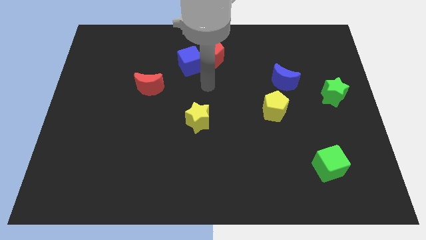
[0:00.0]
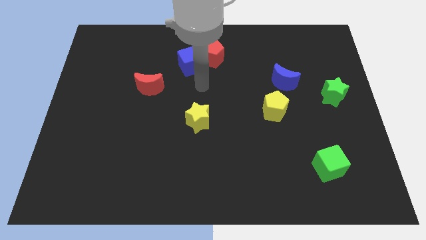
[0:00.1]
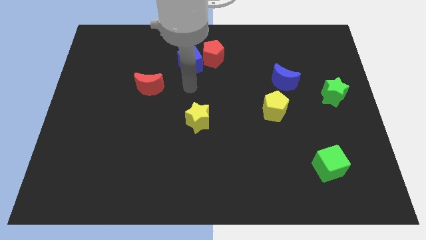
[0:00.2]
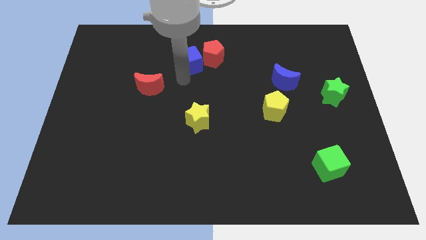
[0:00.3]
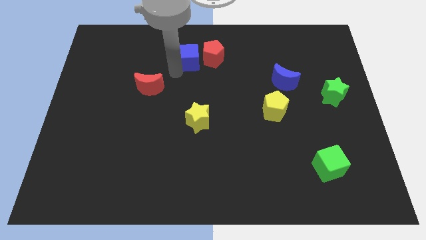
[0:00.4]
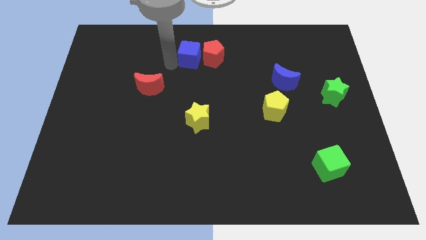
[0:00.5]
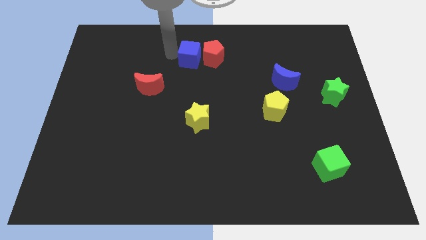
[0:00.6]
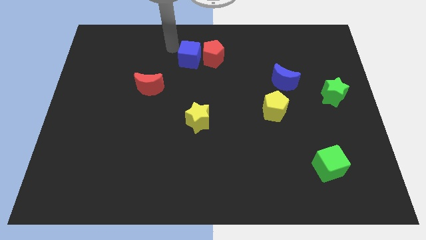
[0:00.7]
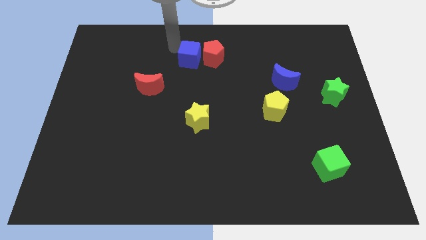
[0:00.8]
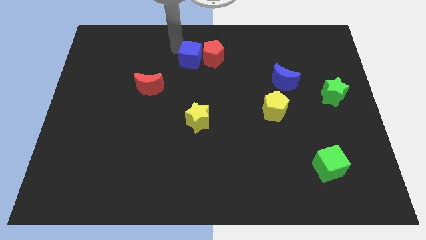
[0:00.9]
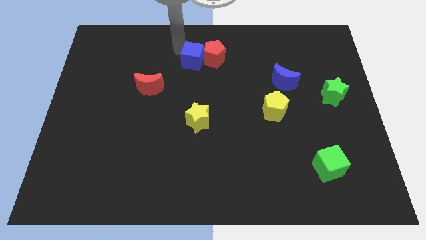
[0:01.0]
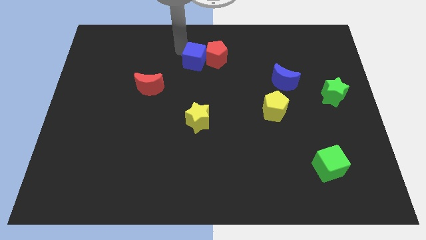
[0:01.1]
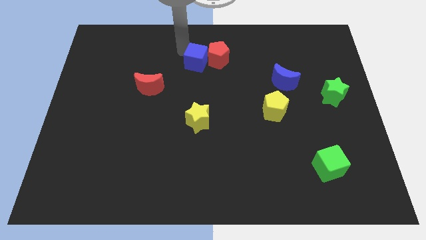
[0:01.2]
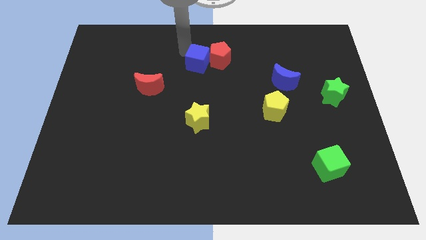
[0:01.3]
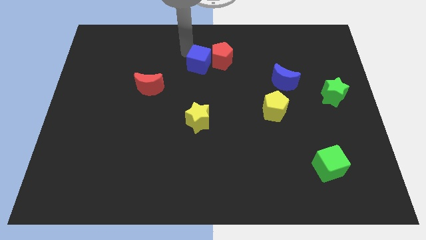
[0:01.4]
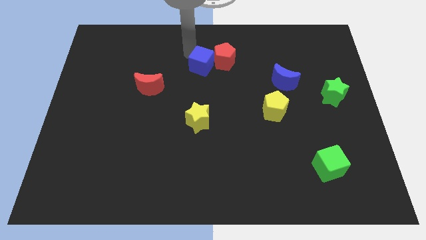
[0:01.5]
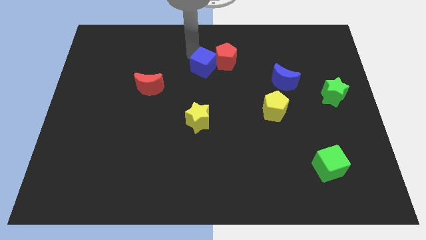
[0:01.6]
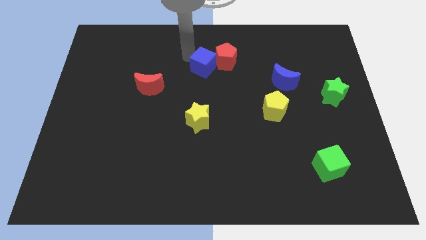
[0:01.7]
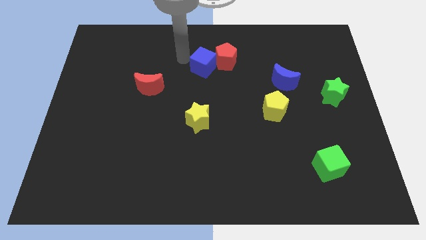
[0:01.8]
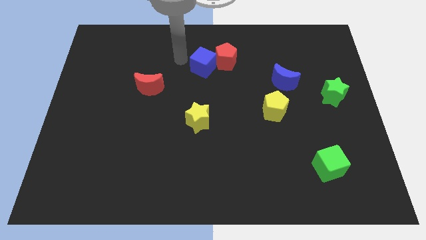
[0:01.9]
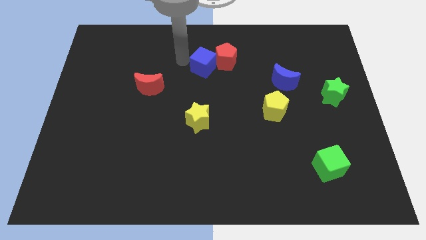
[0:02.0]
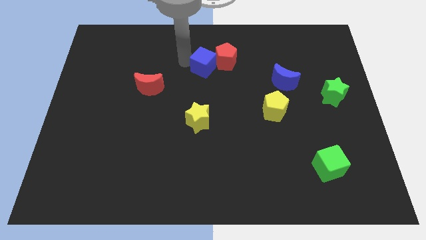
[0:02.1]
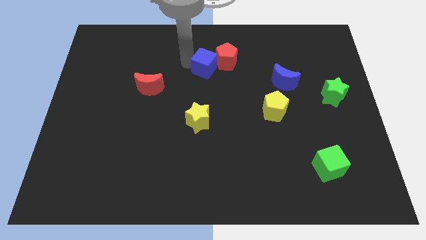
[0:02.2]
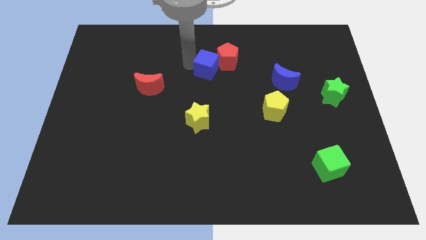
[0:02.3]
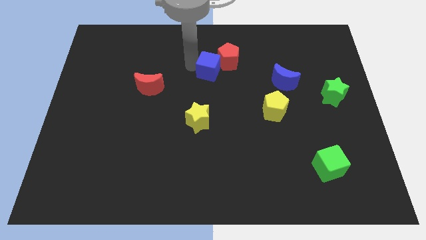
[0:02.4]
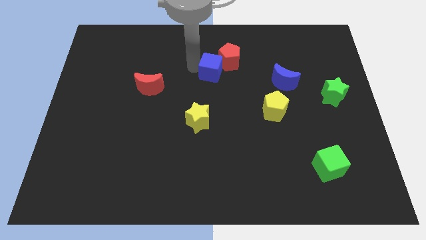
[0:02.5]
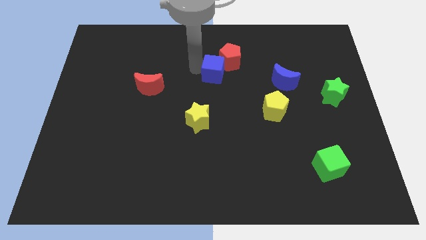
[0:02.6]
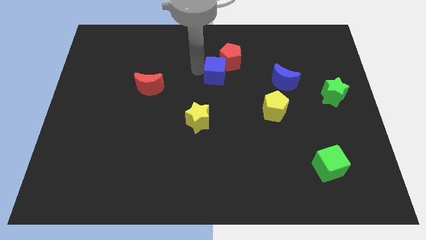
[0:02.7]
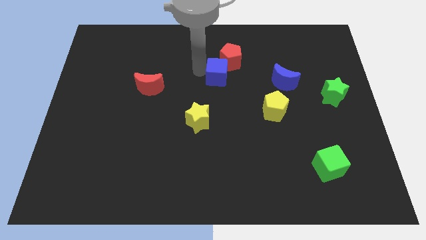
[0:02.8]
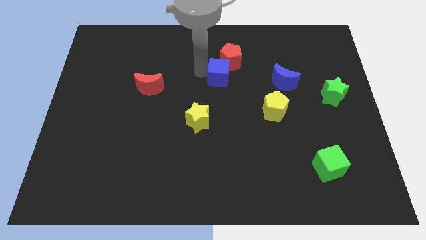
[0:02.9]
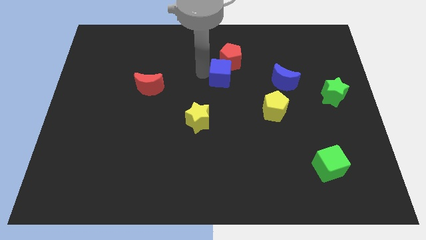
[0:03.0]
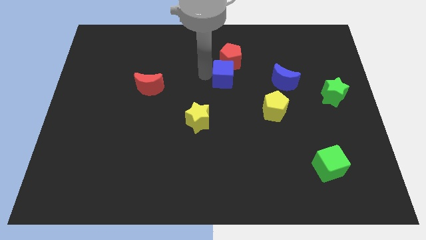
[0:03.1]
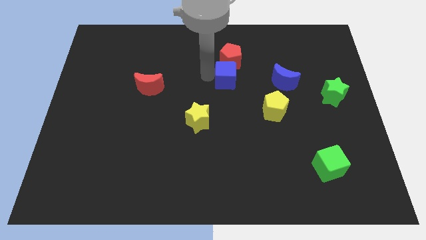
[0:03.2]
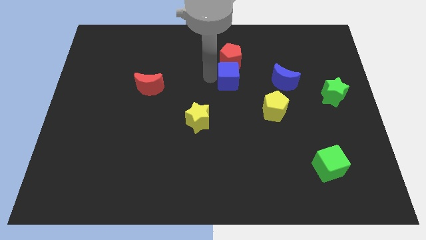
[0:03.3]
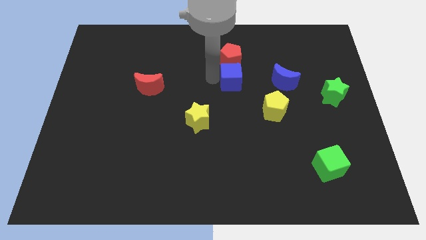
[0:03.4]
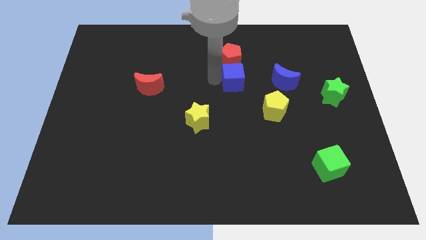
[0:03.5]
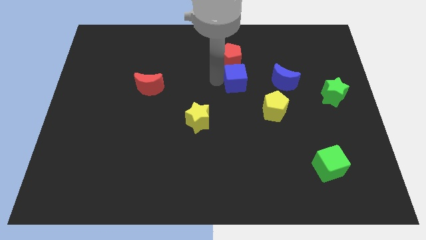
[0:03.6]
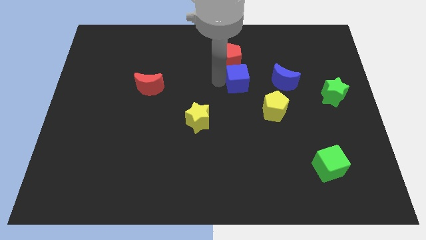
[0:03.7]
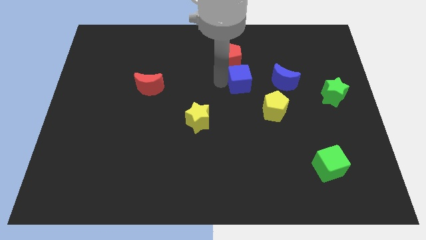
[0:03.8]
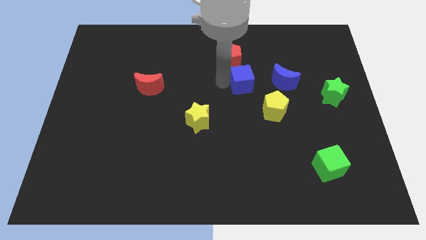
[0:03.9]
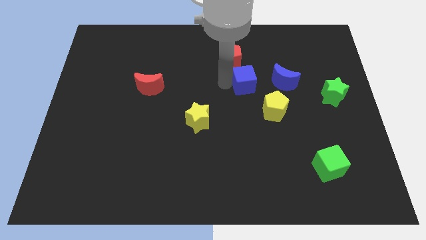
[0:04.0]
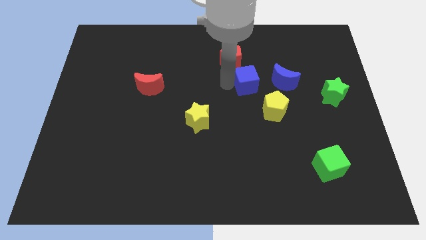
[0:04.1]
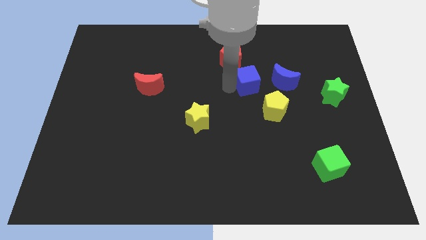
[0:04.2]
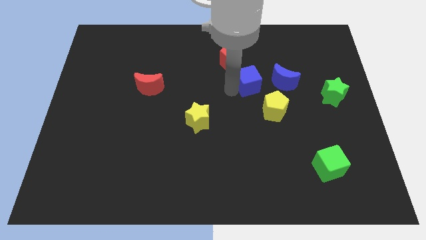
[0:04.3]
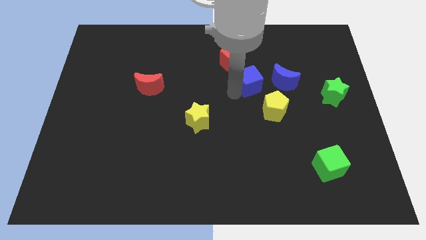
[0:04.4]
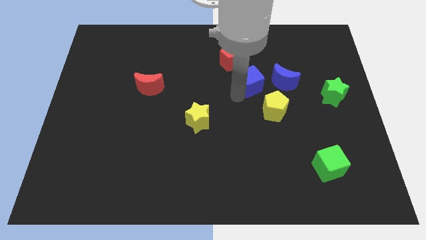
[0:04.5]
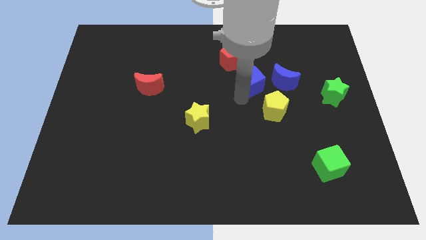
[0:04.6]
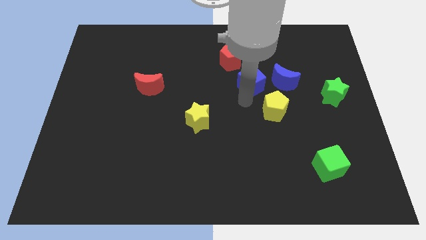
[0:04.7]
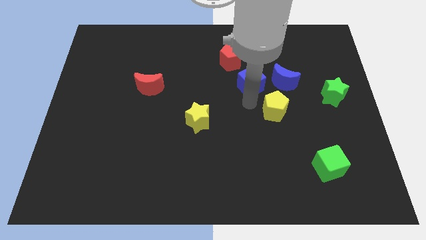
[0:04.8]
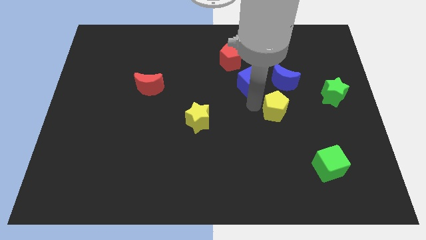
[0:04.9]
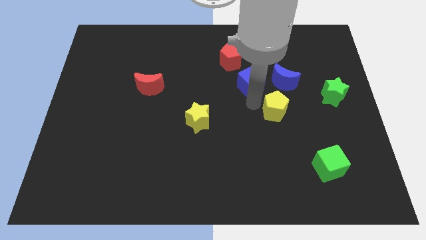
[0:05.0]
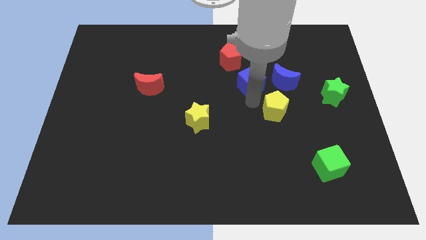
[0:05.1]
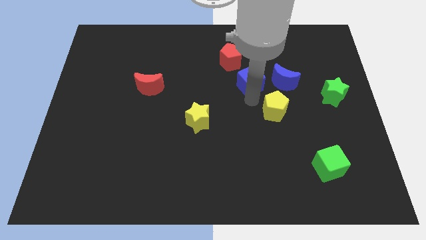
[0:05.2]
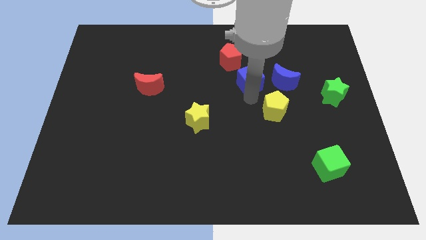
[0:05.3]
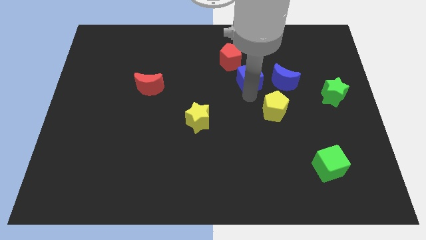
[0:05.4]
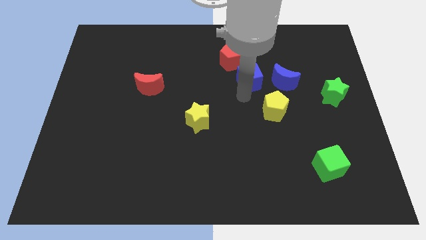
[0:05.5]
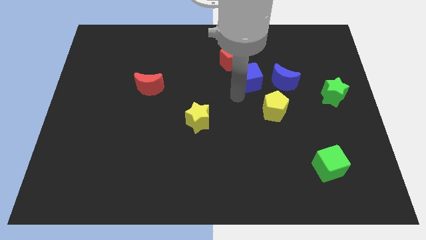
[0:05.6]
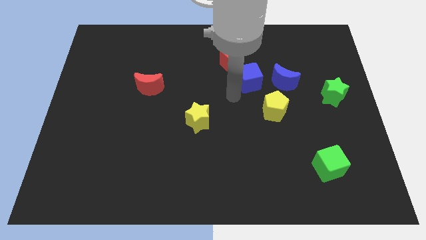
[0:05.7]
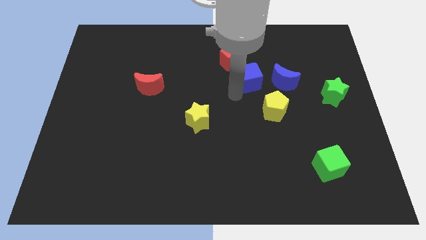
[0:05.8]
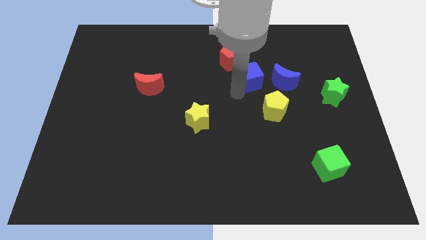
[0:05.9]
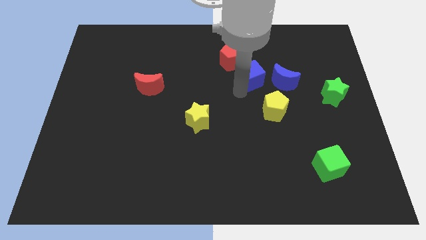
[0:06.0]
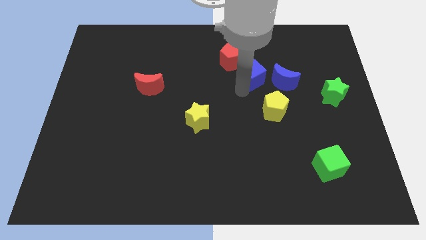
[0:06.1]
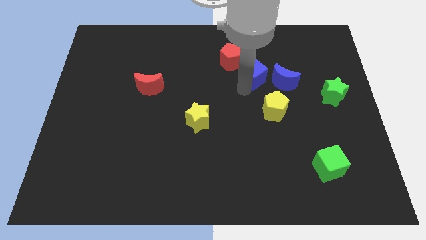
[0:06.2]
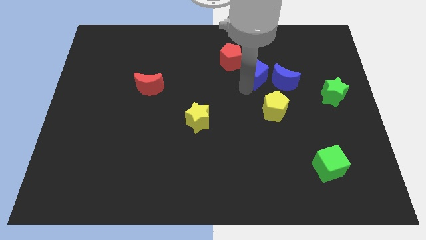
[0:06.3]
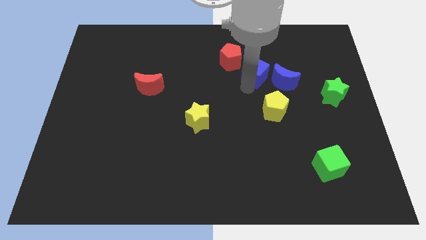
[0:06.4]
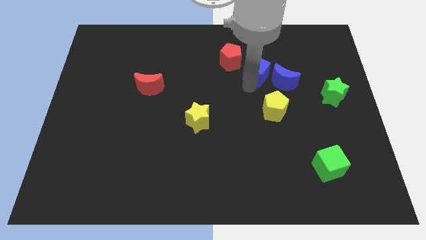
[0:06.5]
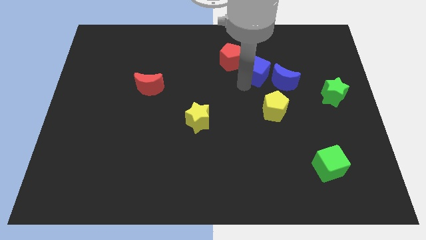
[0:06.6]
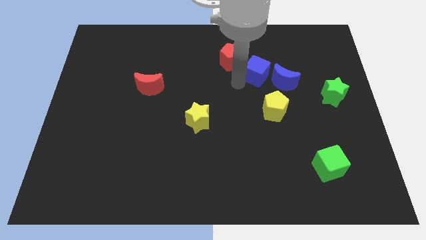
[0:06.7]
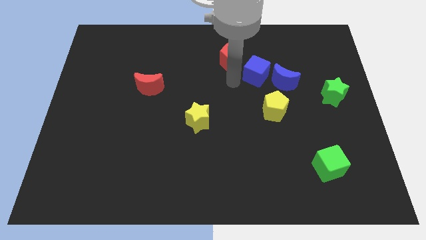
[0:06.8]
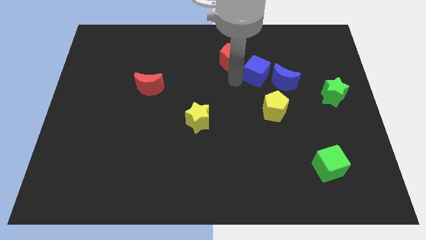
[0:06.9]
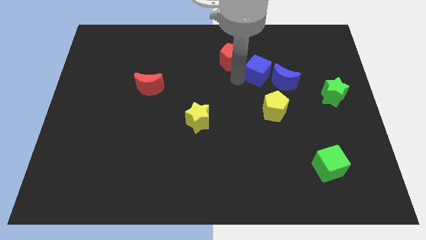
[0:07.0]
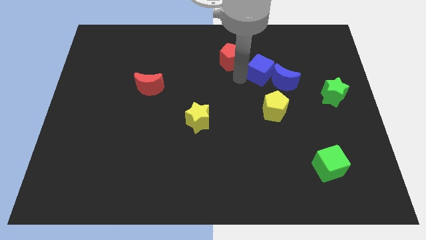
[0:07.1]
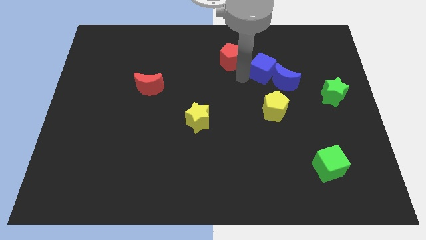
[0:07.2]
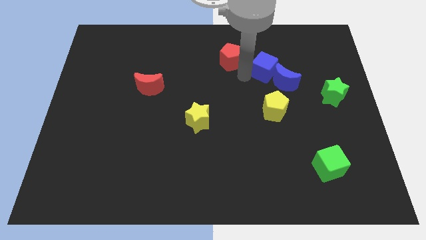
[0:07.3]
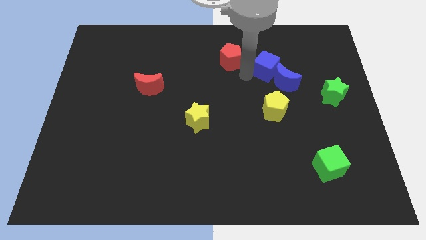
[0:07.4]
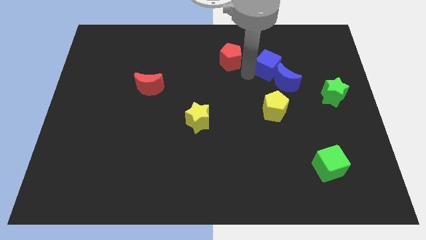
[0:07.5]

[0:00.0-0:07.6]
slide the blue cube to the right

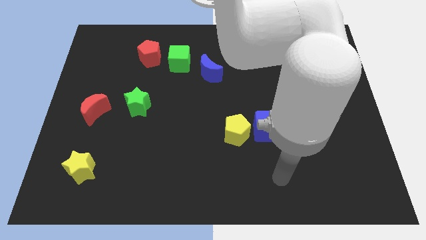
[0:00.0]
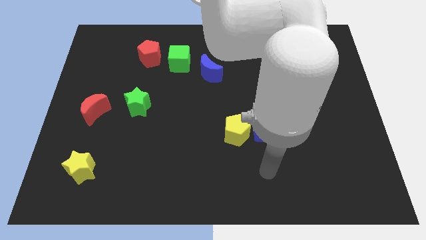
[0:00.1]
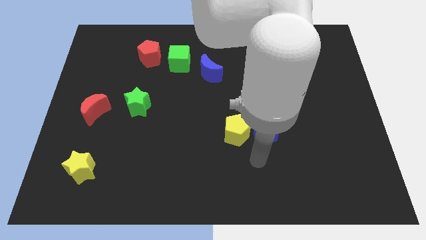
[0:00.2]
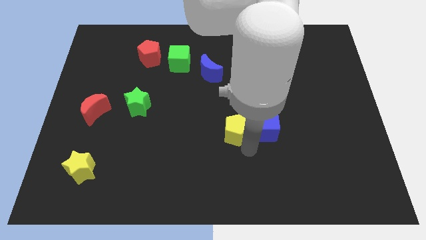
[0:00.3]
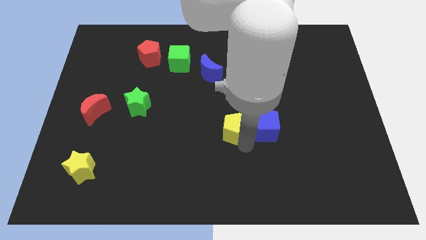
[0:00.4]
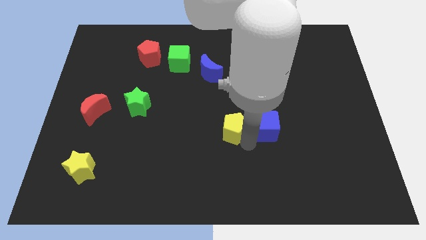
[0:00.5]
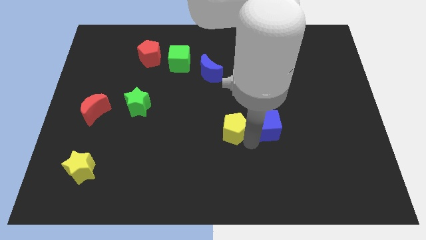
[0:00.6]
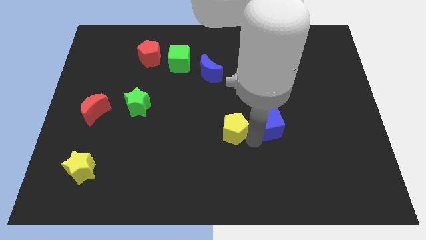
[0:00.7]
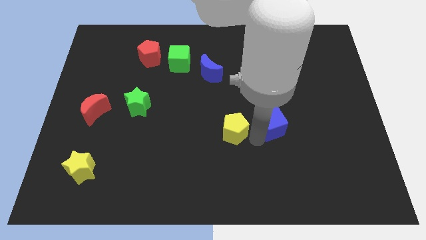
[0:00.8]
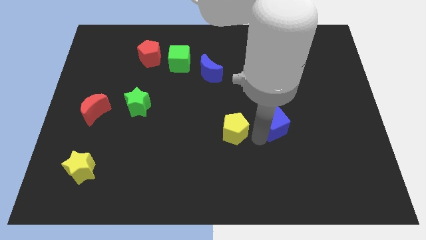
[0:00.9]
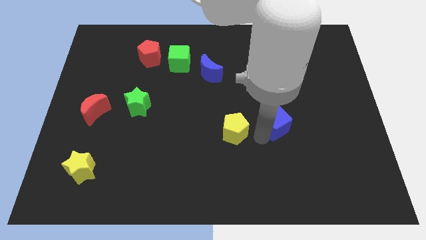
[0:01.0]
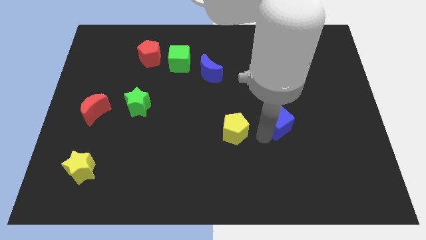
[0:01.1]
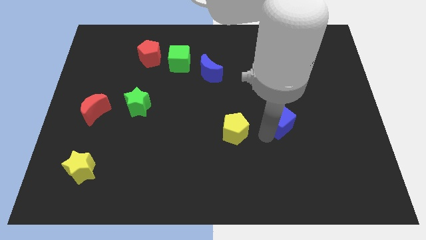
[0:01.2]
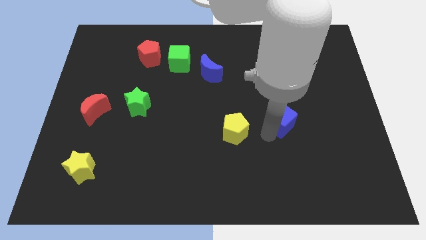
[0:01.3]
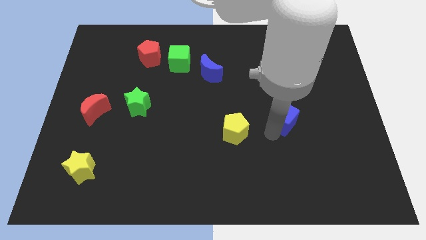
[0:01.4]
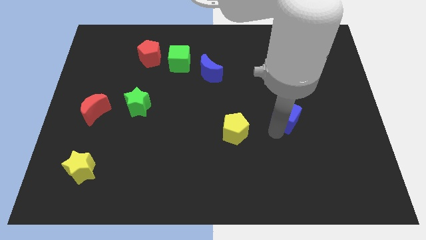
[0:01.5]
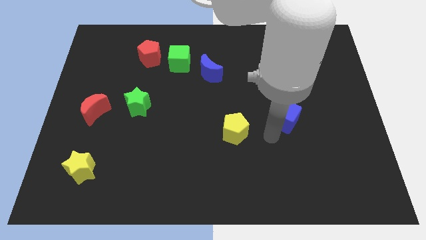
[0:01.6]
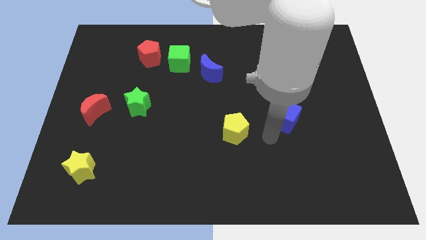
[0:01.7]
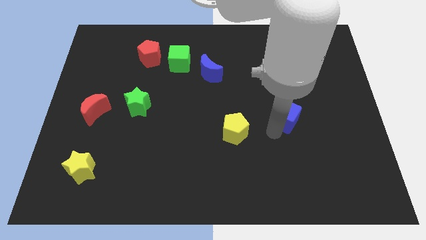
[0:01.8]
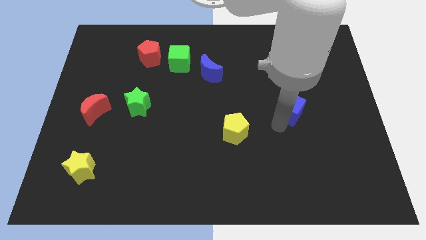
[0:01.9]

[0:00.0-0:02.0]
push the blue cube diagonally upwards and to the right a bit
